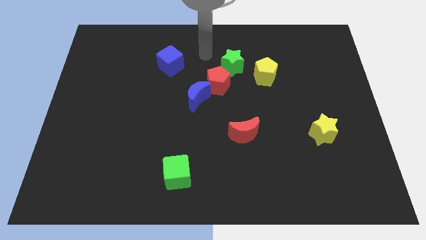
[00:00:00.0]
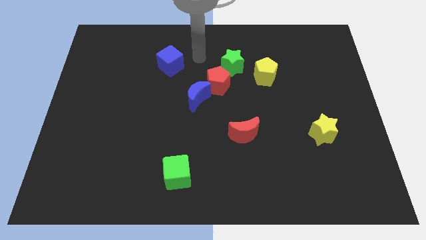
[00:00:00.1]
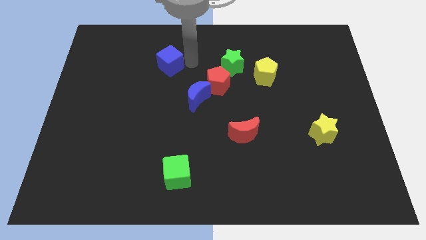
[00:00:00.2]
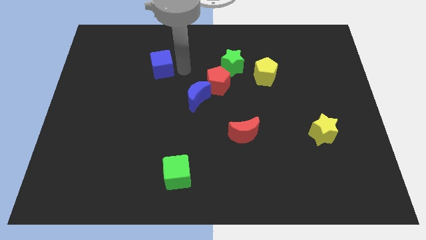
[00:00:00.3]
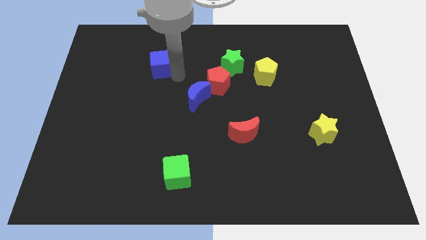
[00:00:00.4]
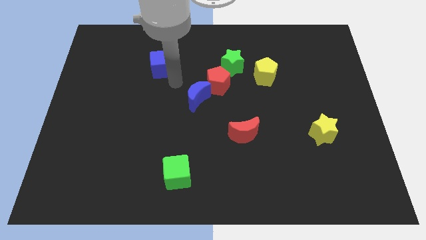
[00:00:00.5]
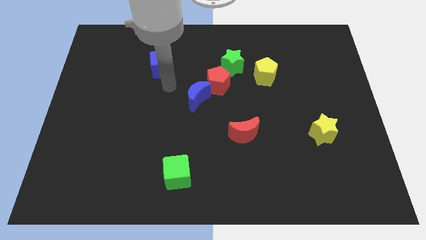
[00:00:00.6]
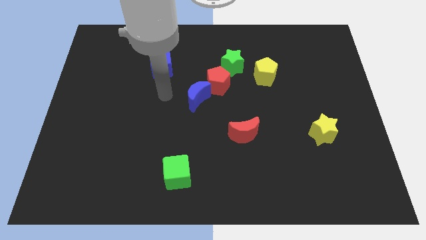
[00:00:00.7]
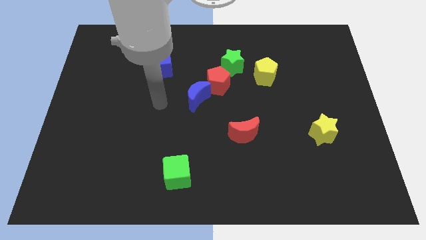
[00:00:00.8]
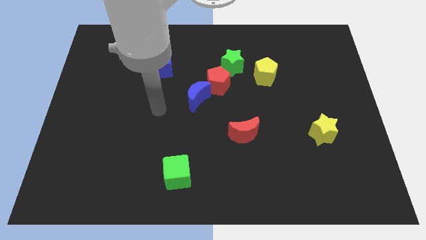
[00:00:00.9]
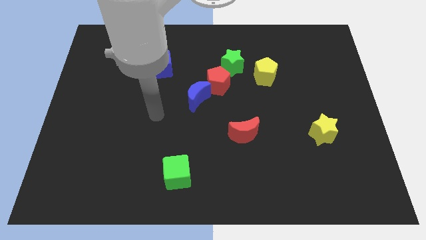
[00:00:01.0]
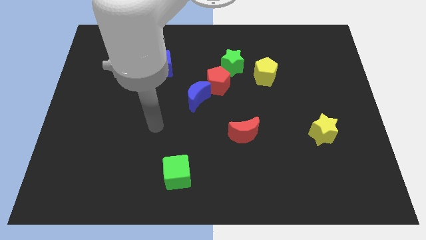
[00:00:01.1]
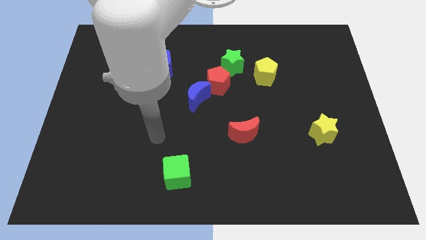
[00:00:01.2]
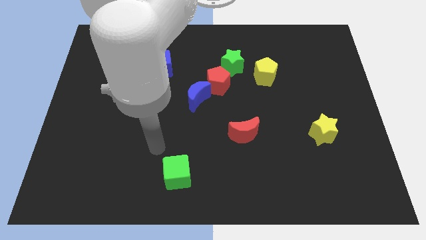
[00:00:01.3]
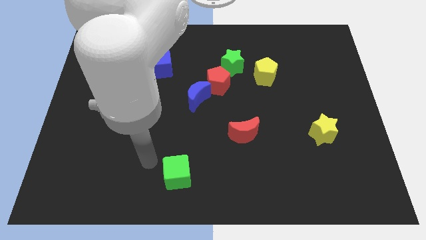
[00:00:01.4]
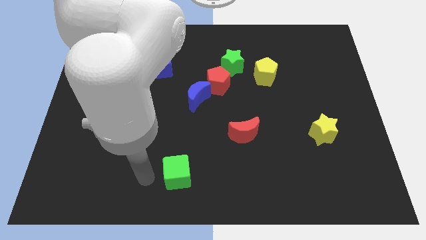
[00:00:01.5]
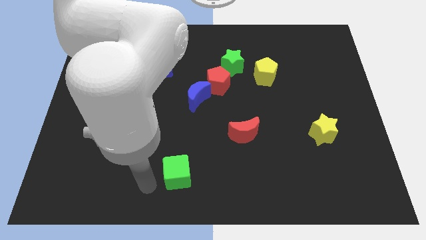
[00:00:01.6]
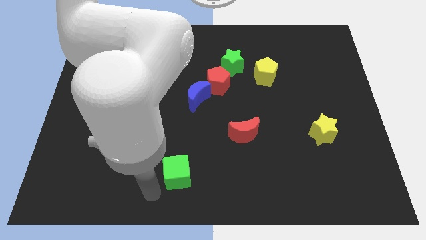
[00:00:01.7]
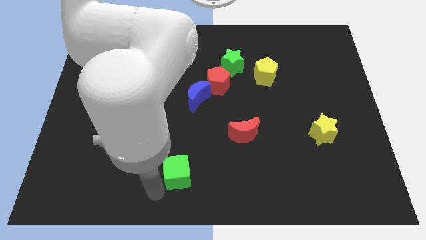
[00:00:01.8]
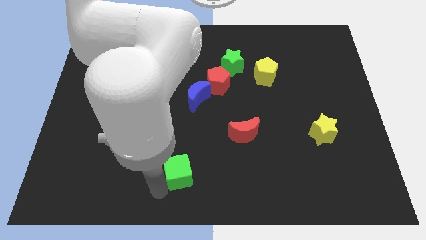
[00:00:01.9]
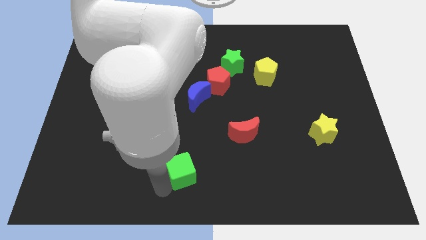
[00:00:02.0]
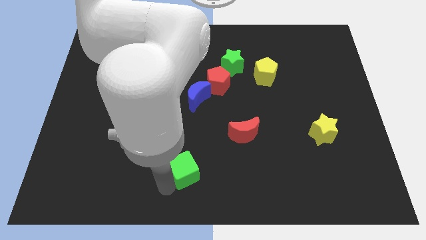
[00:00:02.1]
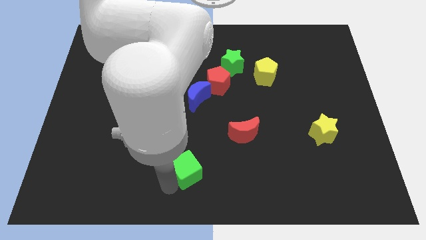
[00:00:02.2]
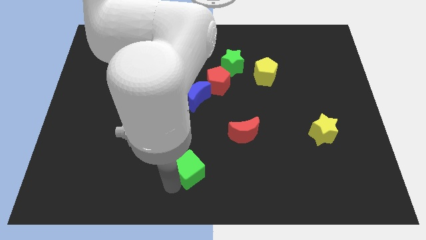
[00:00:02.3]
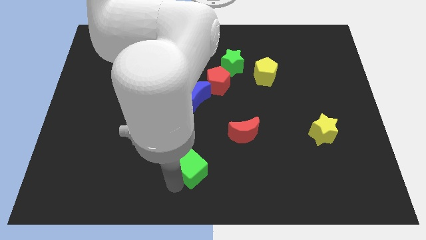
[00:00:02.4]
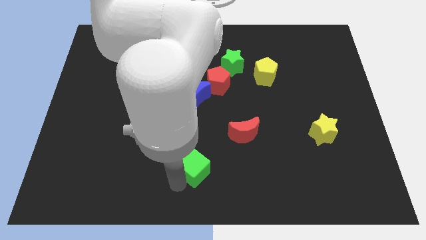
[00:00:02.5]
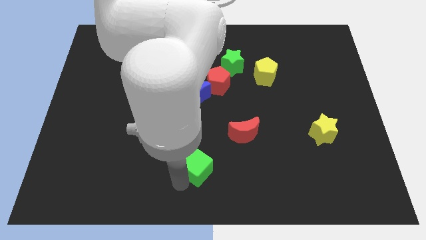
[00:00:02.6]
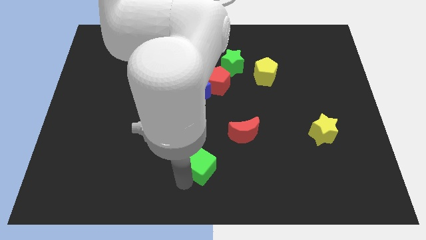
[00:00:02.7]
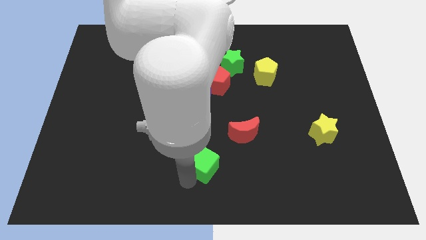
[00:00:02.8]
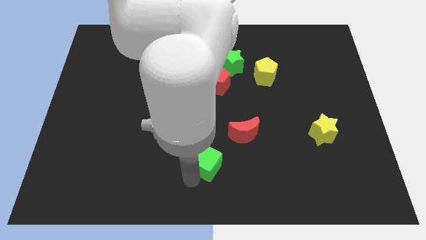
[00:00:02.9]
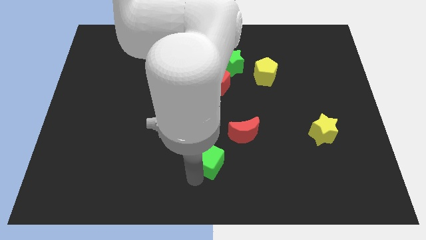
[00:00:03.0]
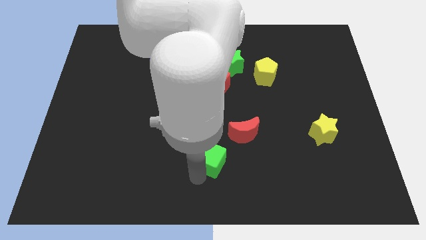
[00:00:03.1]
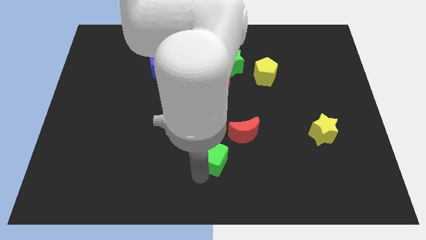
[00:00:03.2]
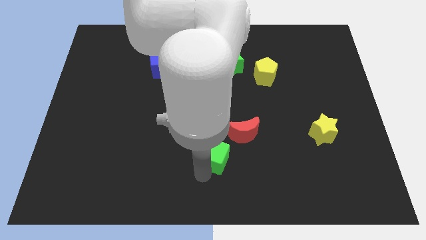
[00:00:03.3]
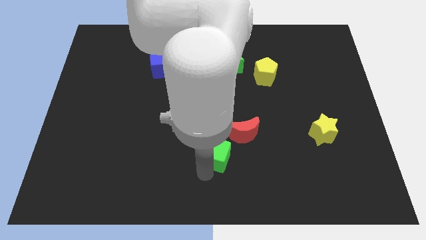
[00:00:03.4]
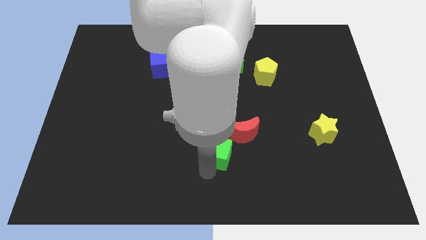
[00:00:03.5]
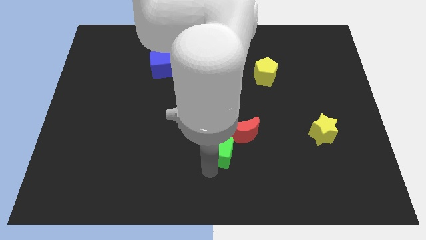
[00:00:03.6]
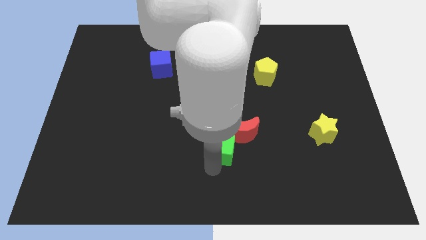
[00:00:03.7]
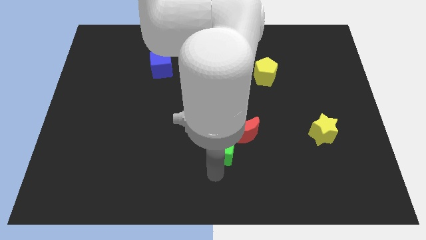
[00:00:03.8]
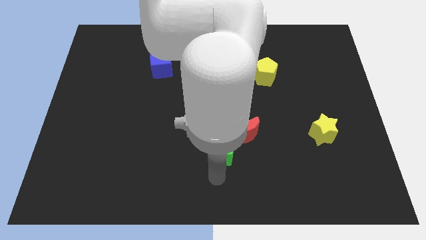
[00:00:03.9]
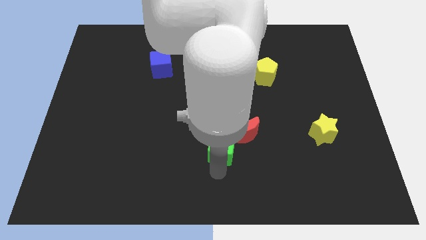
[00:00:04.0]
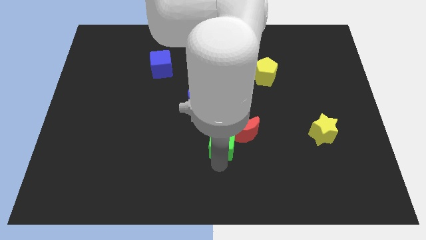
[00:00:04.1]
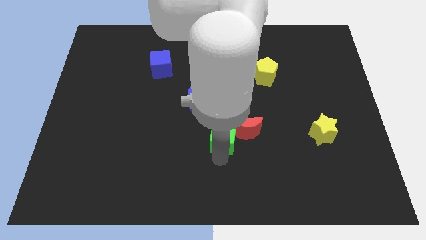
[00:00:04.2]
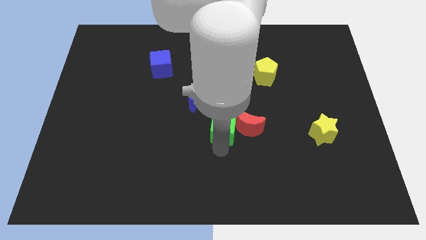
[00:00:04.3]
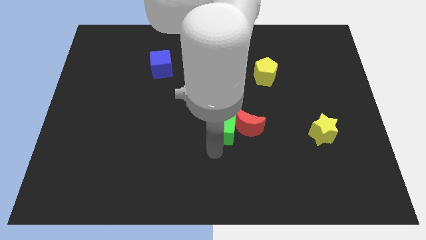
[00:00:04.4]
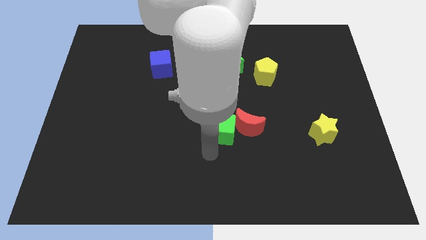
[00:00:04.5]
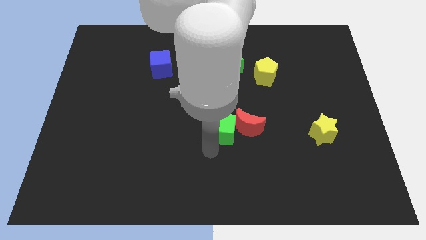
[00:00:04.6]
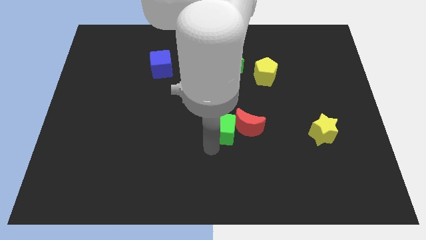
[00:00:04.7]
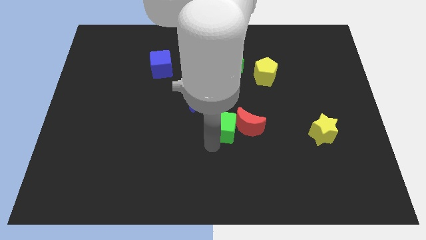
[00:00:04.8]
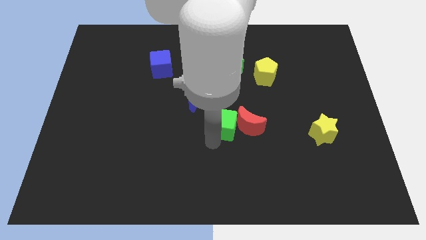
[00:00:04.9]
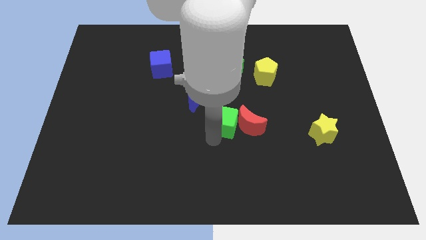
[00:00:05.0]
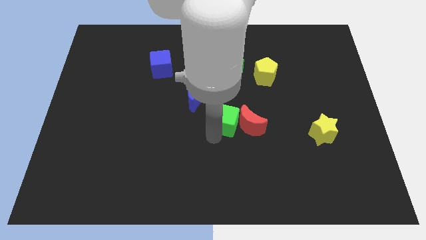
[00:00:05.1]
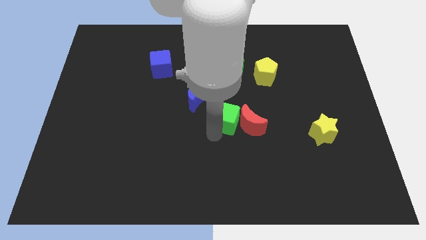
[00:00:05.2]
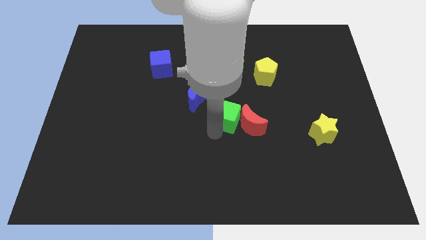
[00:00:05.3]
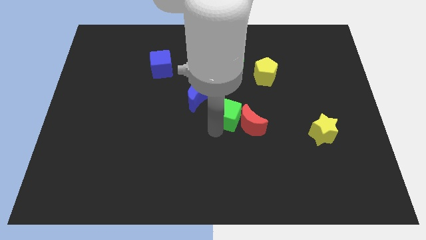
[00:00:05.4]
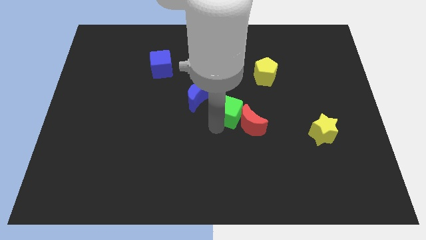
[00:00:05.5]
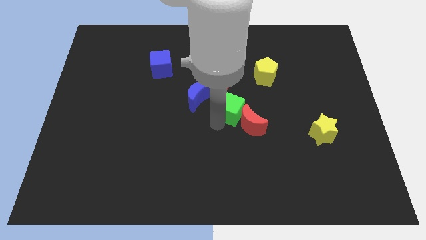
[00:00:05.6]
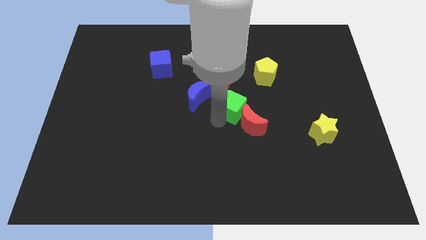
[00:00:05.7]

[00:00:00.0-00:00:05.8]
push the green cube upwards and right

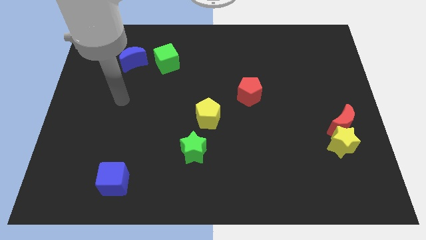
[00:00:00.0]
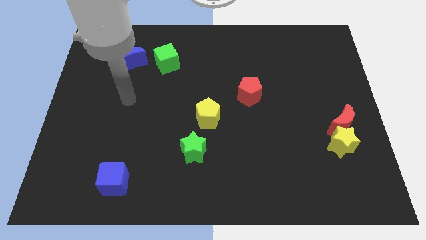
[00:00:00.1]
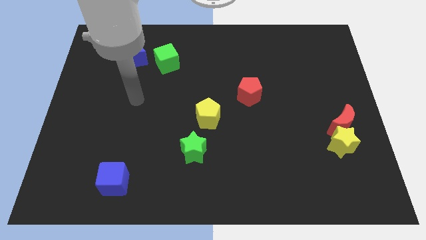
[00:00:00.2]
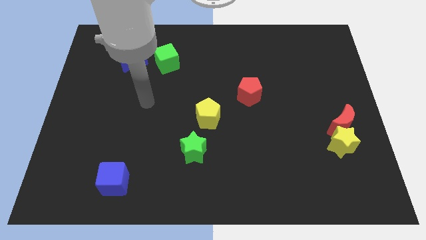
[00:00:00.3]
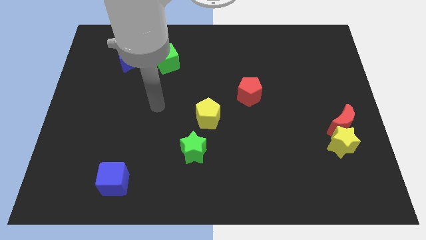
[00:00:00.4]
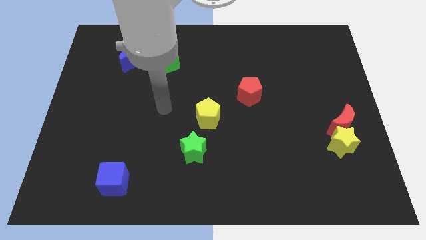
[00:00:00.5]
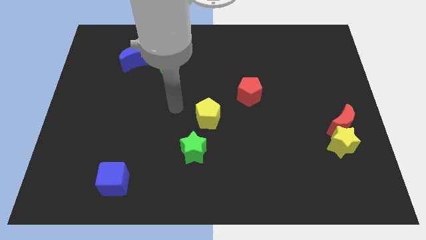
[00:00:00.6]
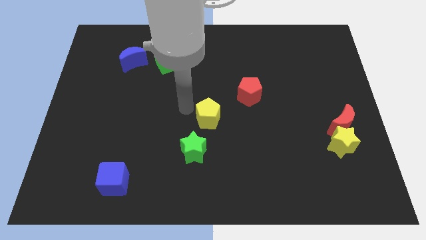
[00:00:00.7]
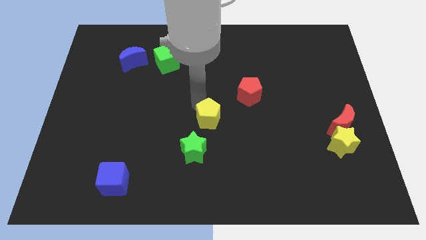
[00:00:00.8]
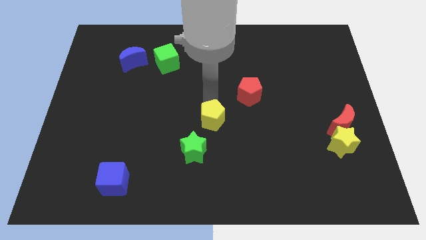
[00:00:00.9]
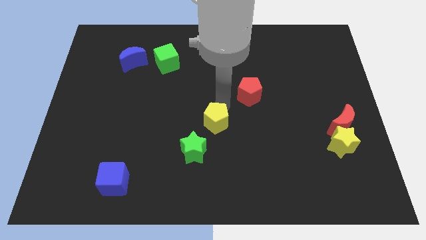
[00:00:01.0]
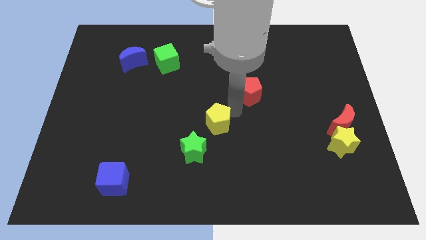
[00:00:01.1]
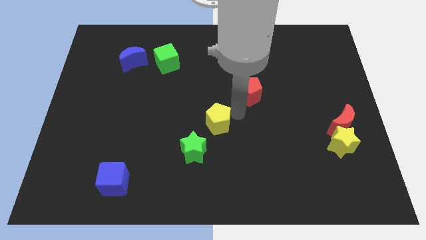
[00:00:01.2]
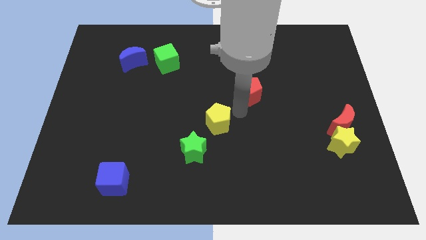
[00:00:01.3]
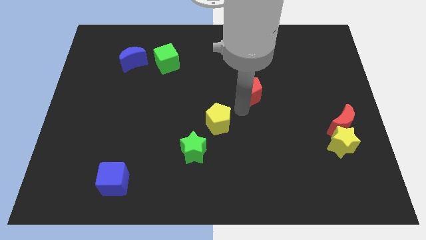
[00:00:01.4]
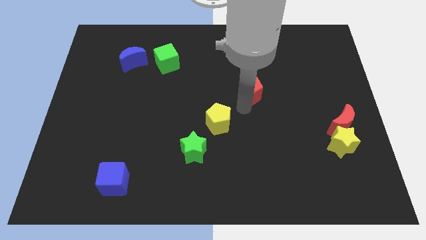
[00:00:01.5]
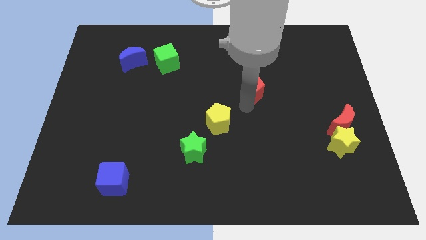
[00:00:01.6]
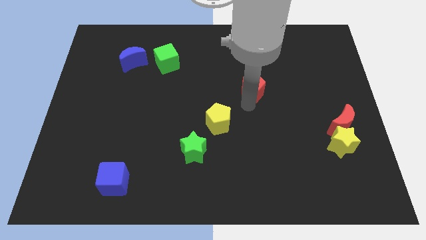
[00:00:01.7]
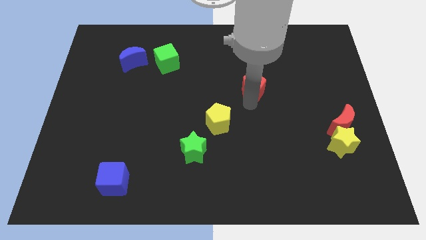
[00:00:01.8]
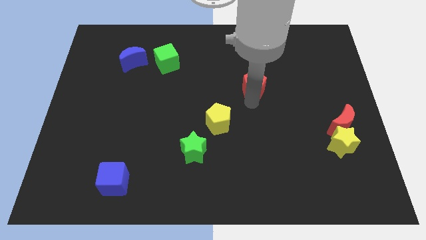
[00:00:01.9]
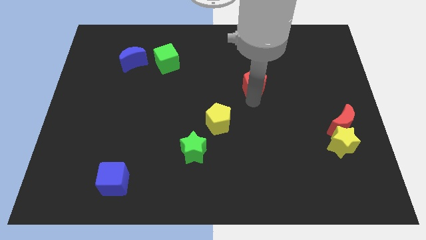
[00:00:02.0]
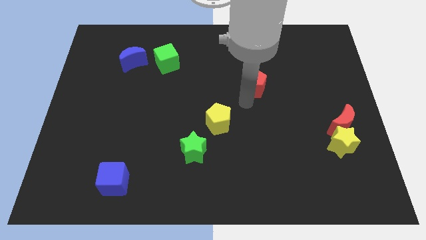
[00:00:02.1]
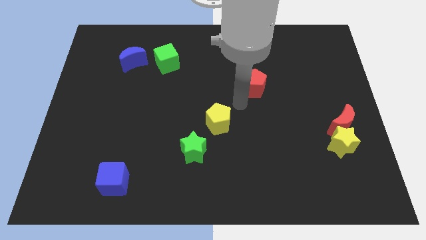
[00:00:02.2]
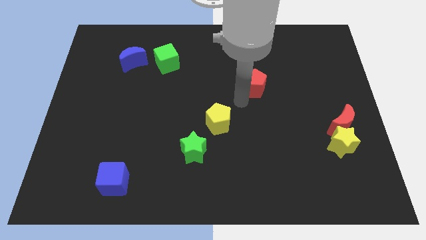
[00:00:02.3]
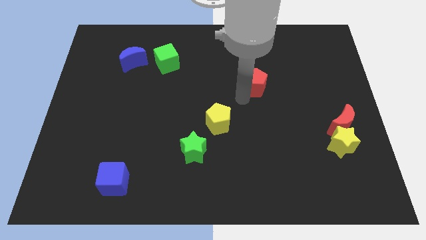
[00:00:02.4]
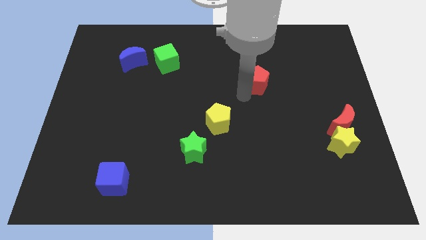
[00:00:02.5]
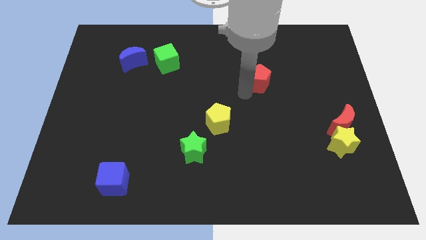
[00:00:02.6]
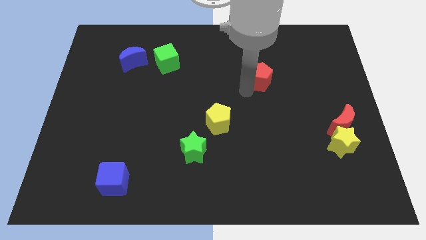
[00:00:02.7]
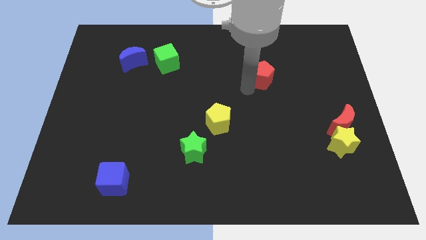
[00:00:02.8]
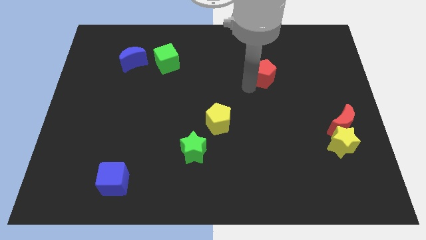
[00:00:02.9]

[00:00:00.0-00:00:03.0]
move the red pentagon diagonally up and to the right somewhat
